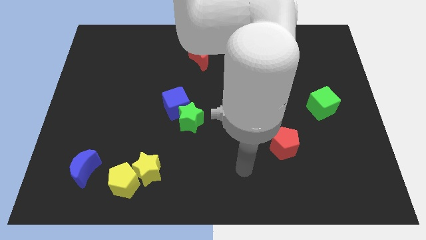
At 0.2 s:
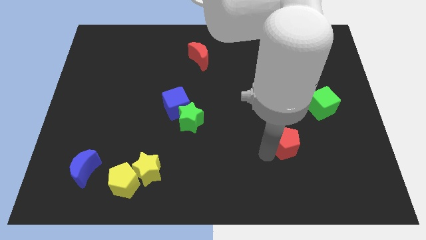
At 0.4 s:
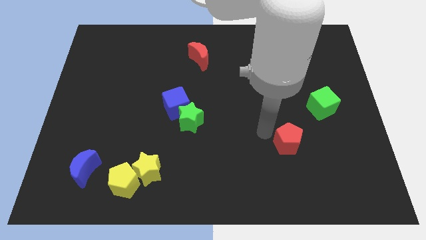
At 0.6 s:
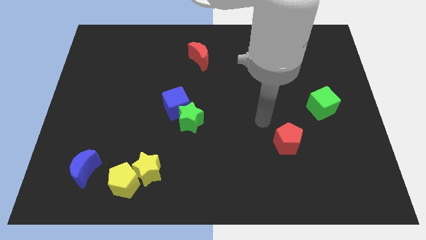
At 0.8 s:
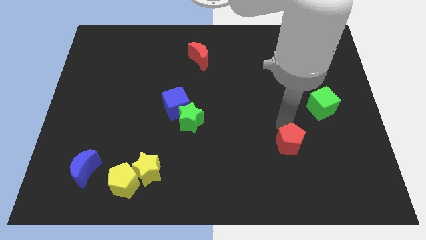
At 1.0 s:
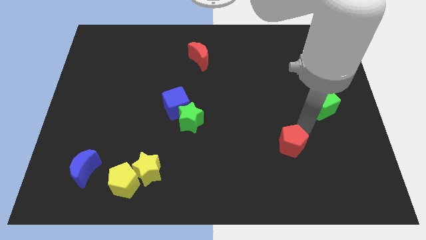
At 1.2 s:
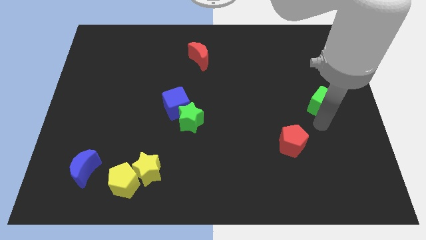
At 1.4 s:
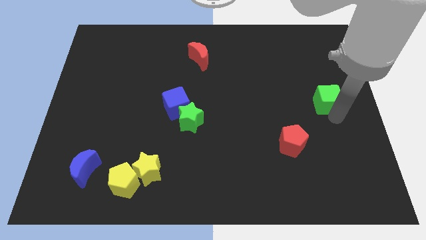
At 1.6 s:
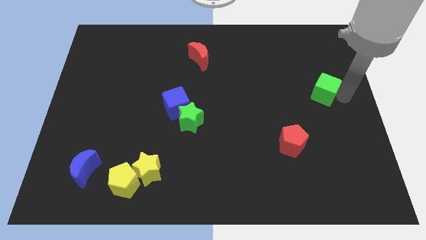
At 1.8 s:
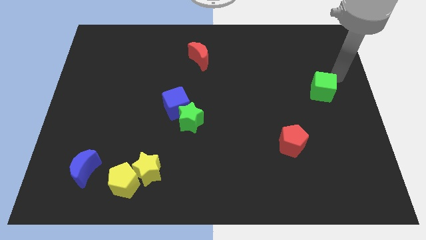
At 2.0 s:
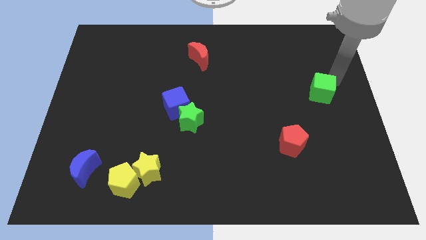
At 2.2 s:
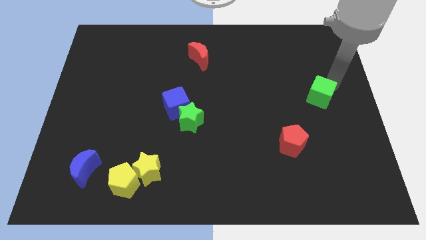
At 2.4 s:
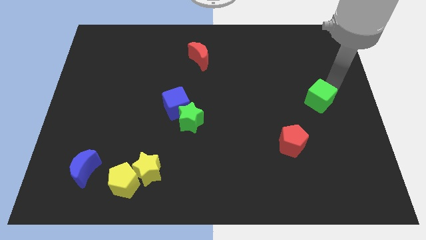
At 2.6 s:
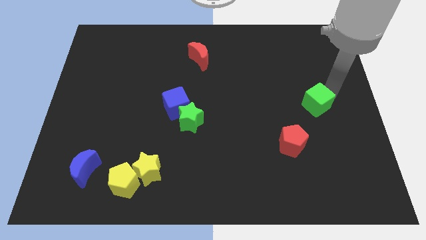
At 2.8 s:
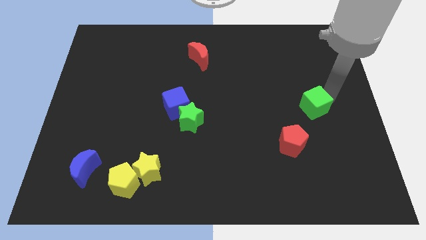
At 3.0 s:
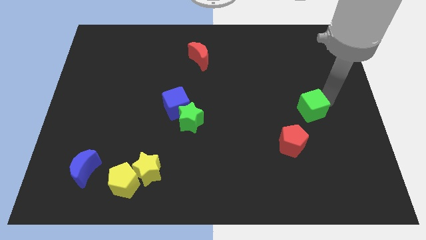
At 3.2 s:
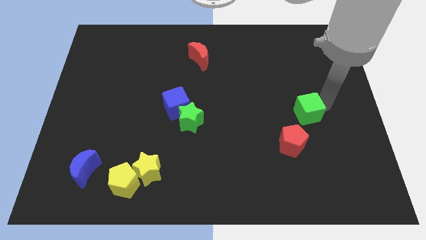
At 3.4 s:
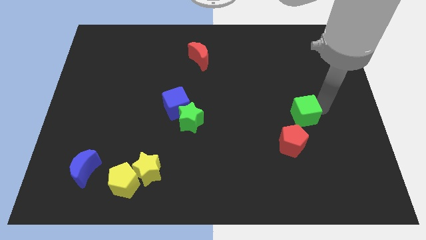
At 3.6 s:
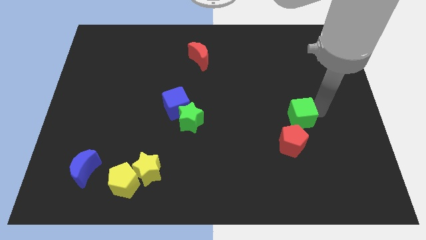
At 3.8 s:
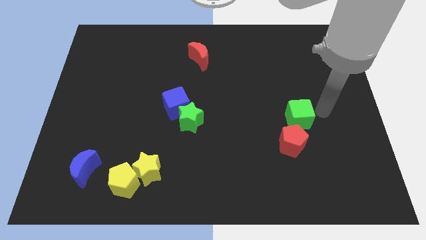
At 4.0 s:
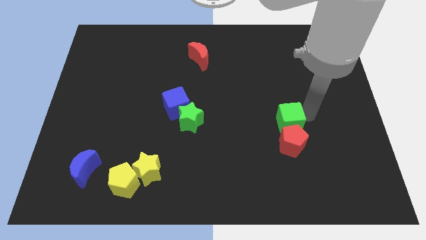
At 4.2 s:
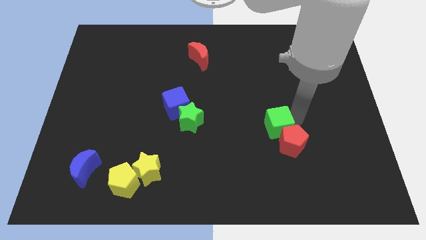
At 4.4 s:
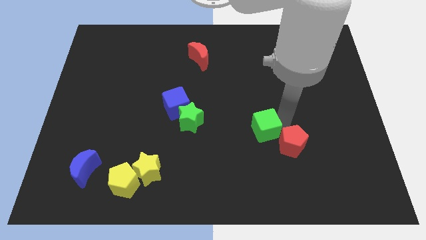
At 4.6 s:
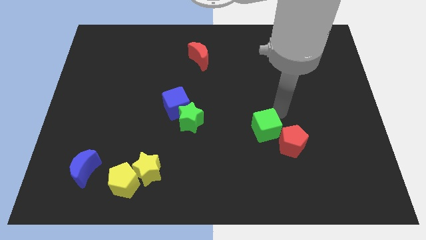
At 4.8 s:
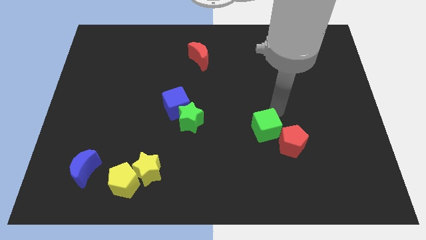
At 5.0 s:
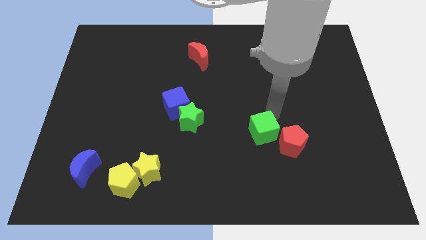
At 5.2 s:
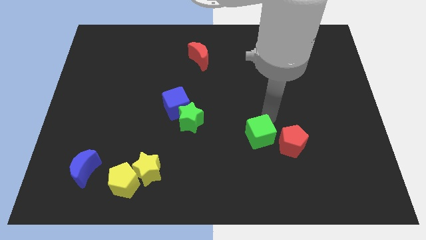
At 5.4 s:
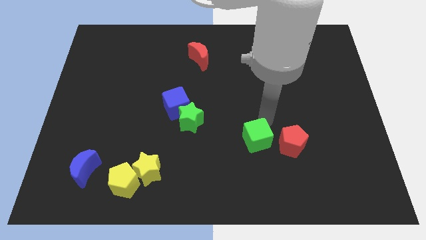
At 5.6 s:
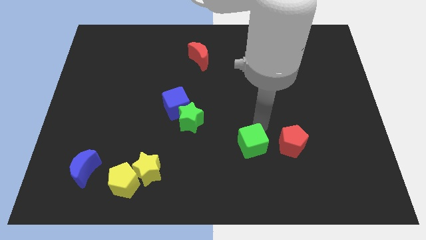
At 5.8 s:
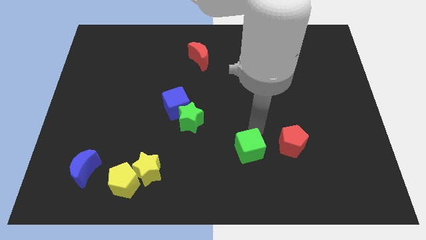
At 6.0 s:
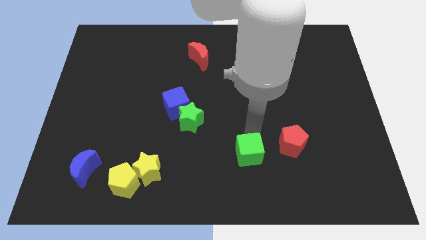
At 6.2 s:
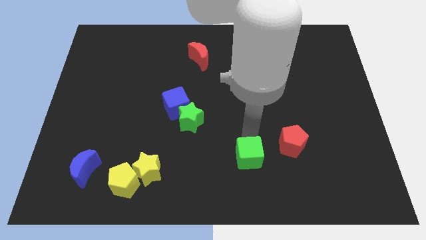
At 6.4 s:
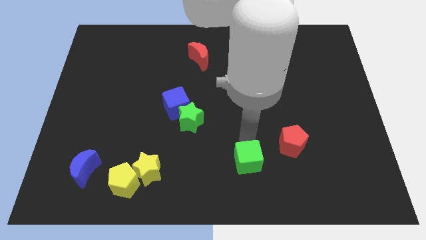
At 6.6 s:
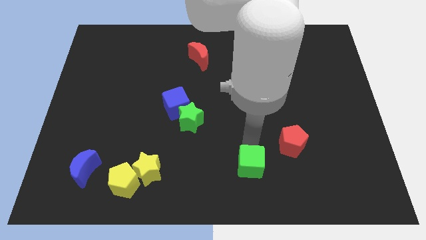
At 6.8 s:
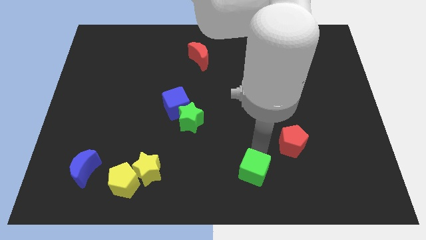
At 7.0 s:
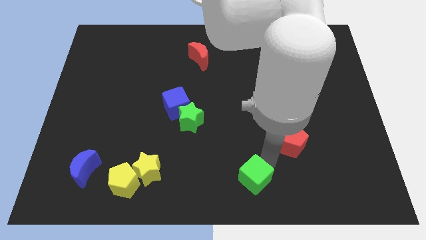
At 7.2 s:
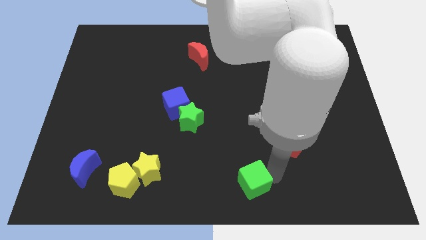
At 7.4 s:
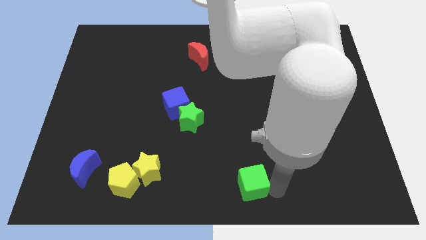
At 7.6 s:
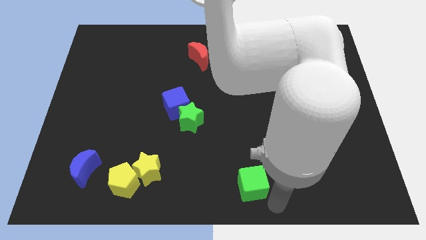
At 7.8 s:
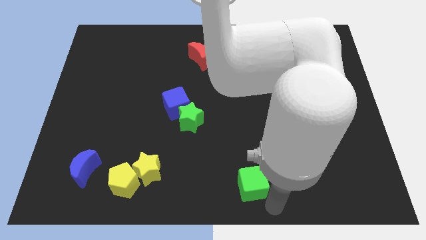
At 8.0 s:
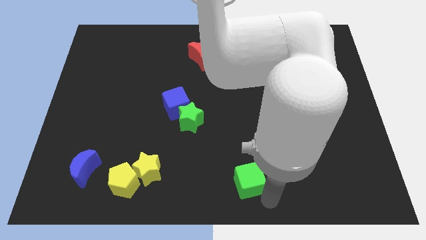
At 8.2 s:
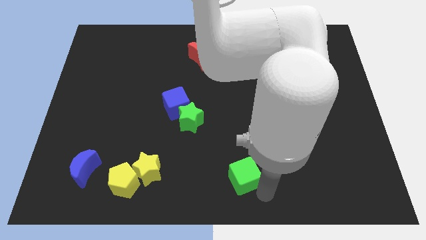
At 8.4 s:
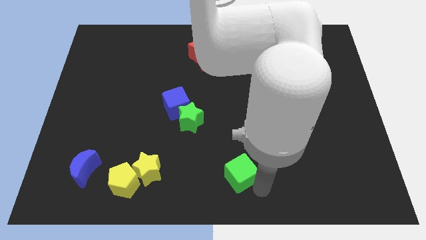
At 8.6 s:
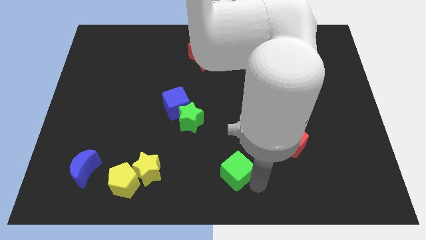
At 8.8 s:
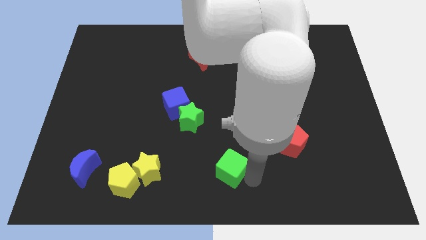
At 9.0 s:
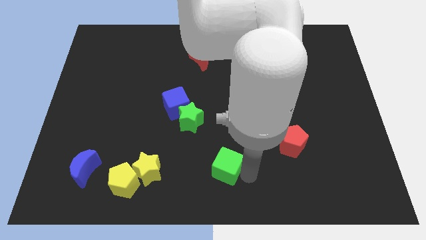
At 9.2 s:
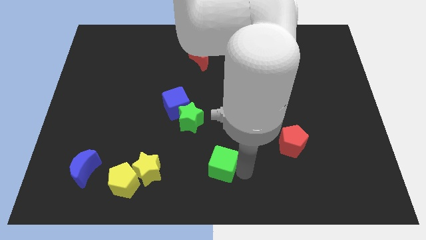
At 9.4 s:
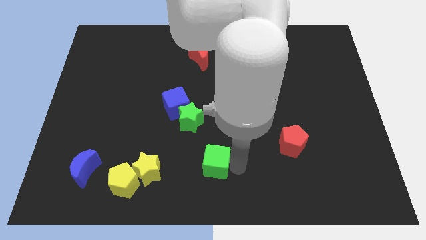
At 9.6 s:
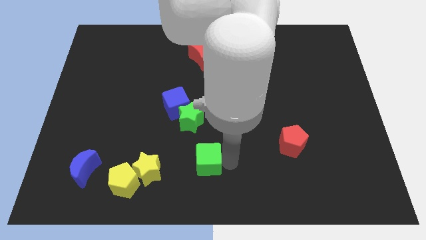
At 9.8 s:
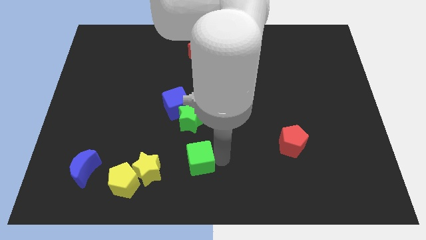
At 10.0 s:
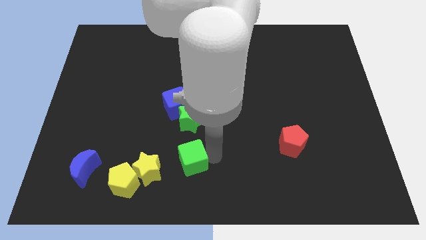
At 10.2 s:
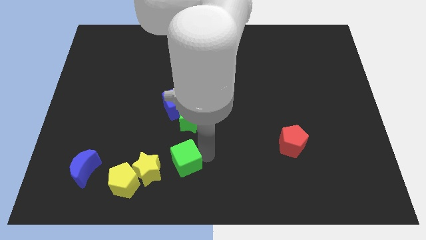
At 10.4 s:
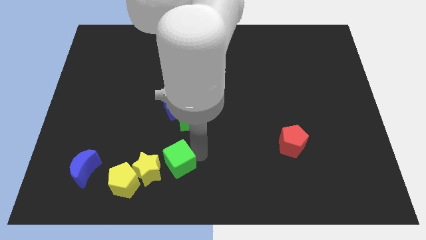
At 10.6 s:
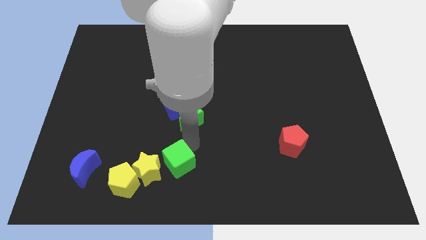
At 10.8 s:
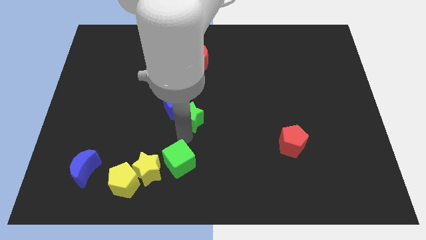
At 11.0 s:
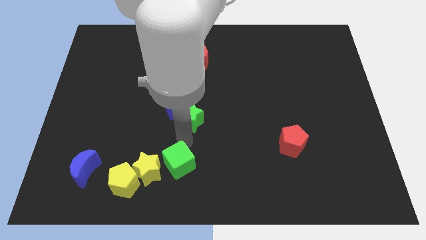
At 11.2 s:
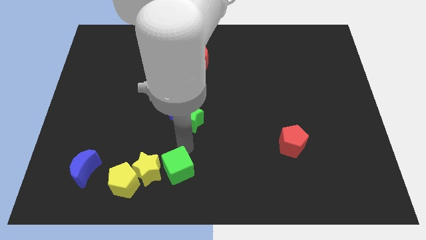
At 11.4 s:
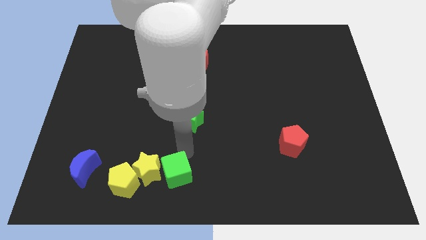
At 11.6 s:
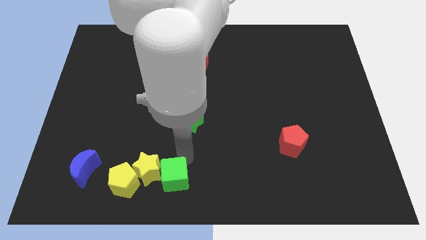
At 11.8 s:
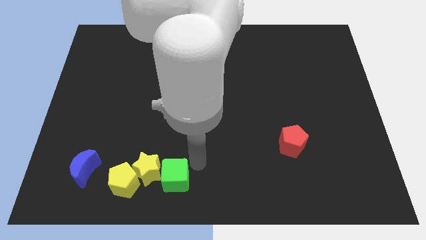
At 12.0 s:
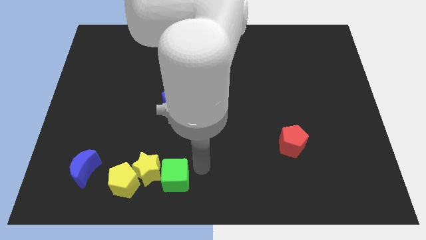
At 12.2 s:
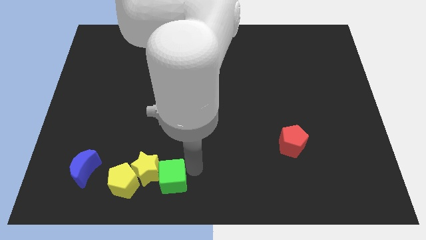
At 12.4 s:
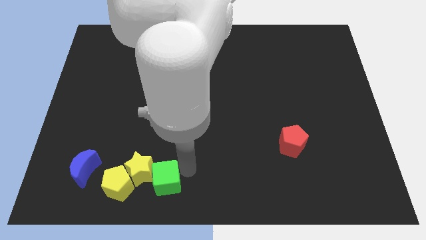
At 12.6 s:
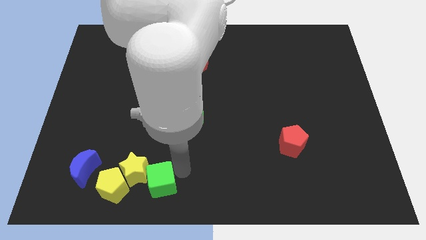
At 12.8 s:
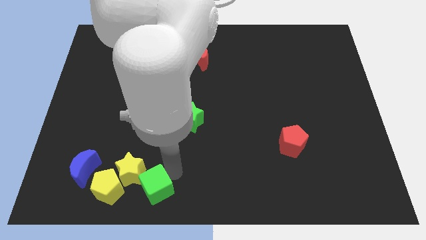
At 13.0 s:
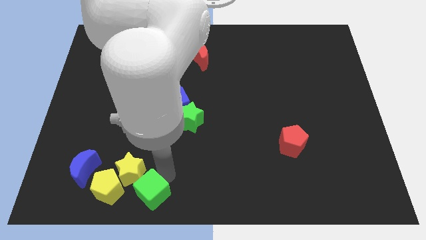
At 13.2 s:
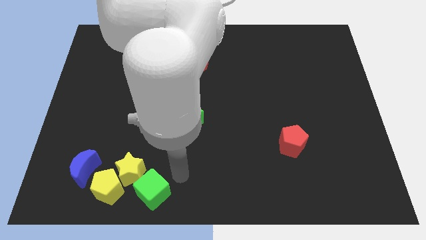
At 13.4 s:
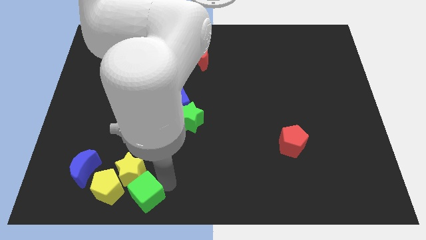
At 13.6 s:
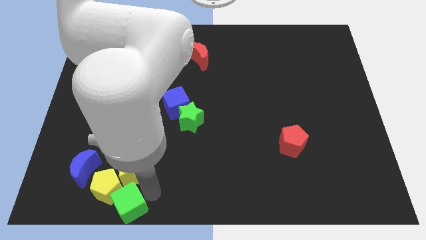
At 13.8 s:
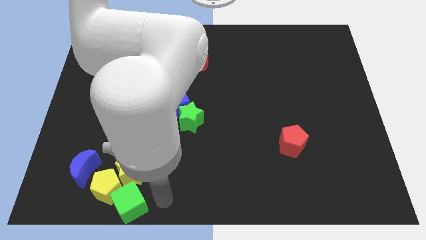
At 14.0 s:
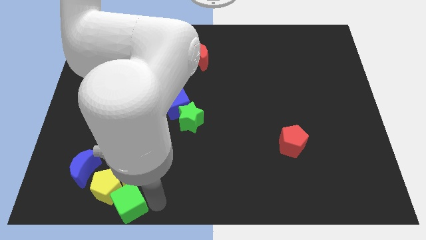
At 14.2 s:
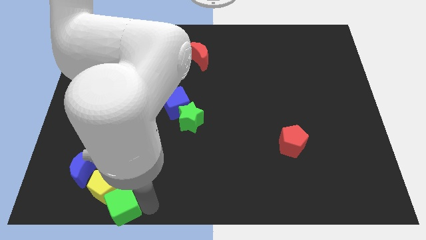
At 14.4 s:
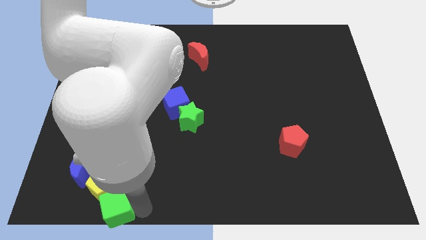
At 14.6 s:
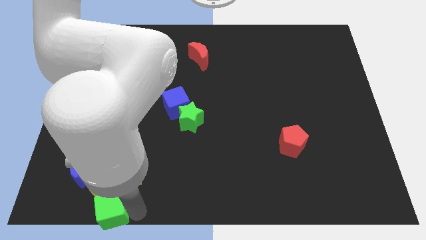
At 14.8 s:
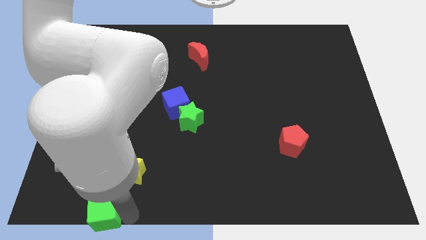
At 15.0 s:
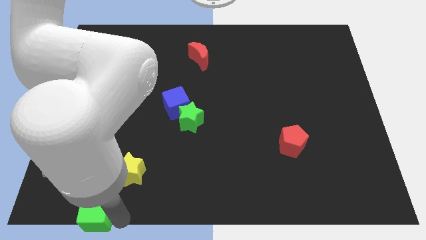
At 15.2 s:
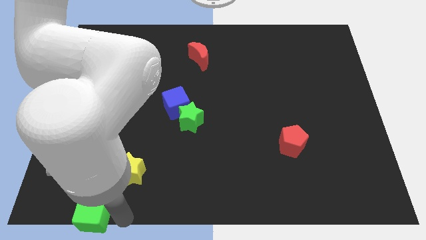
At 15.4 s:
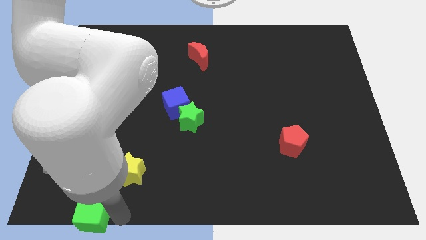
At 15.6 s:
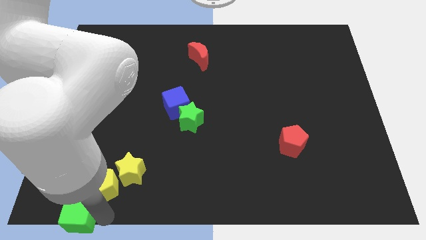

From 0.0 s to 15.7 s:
put the green cube to the bottom left corner
